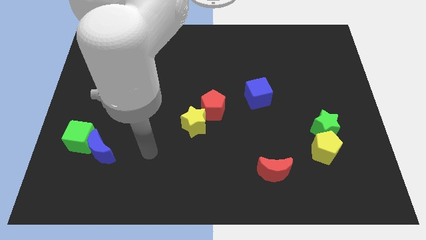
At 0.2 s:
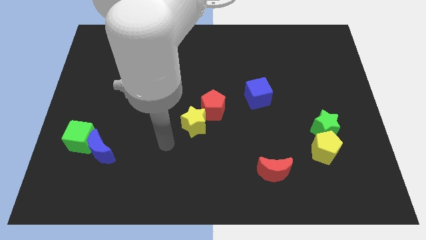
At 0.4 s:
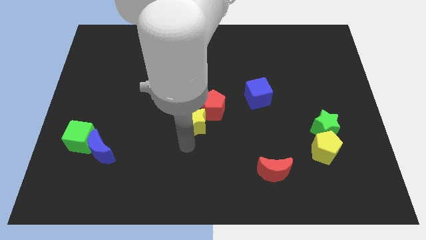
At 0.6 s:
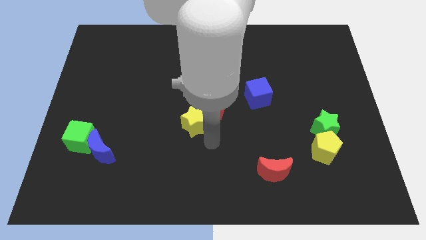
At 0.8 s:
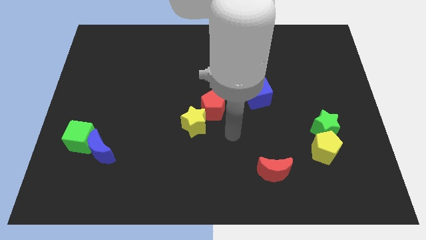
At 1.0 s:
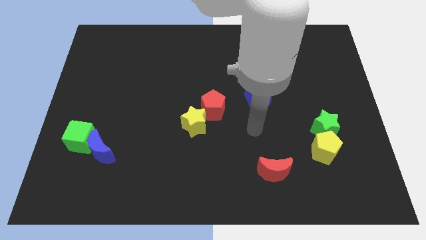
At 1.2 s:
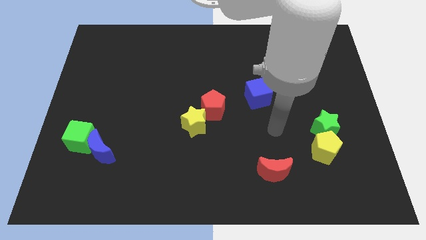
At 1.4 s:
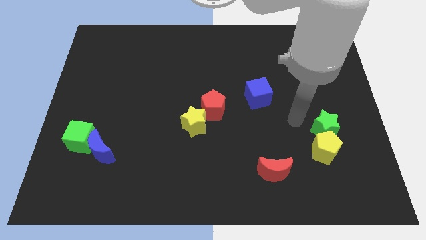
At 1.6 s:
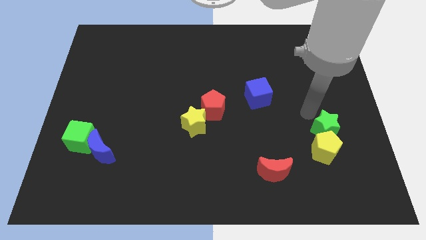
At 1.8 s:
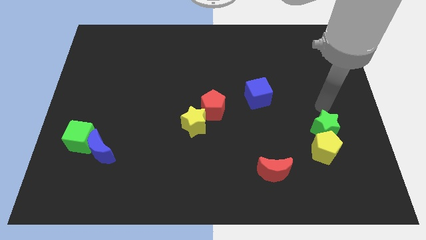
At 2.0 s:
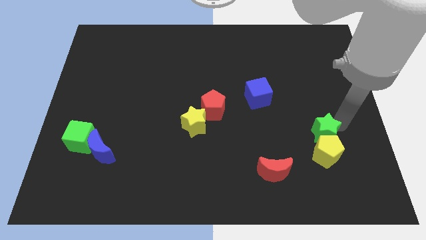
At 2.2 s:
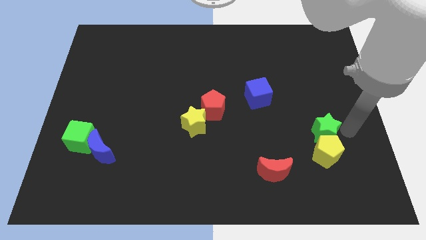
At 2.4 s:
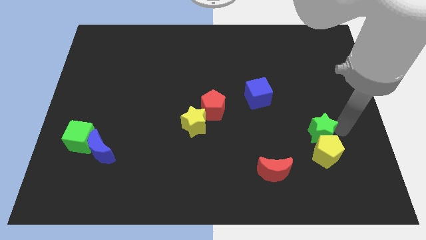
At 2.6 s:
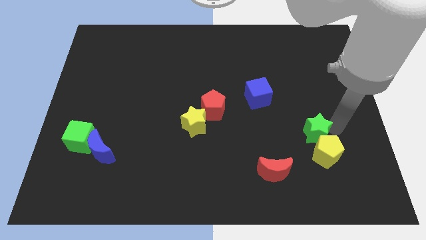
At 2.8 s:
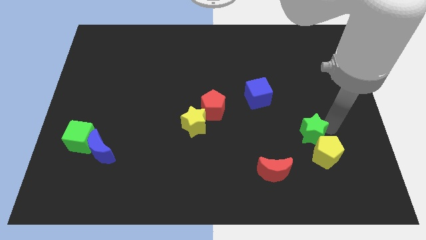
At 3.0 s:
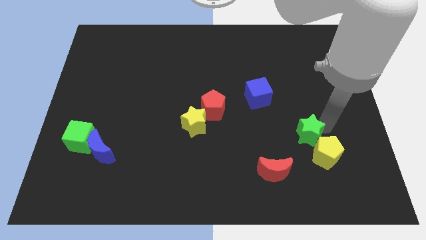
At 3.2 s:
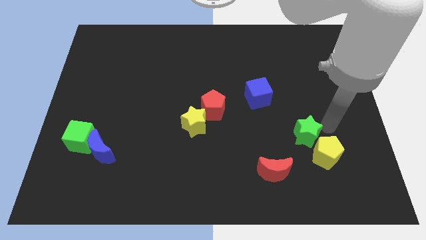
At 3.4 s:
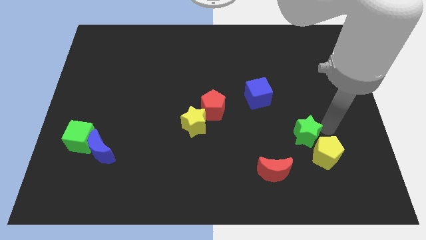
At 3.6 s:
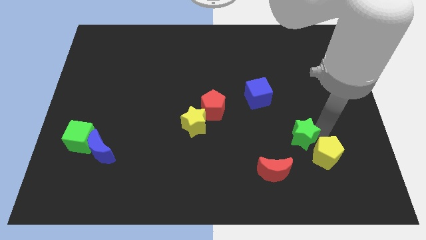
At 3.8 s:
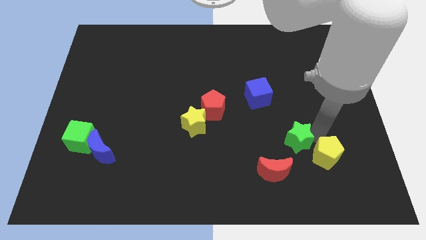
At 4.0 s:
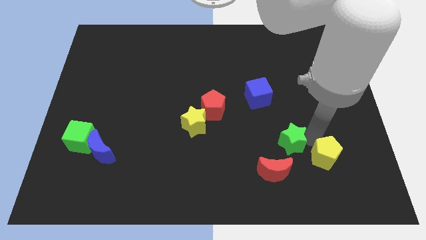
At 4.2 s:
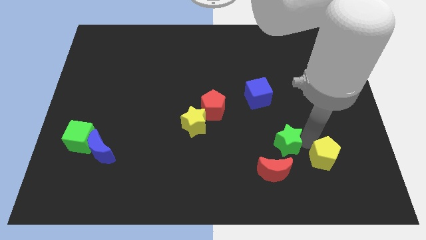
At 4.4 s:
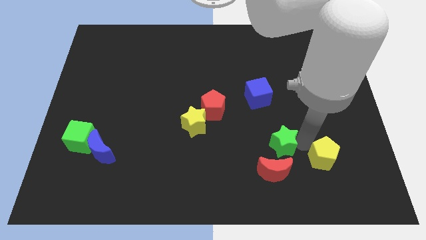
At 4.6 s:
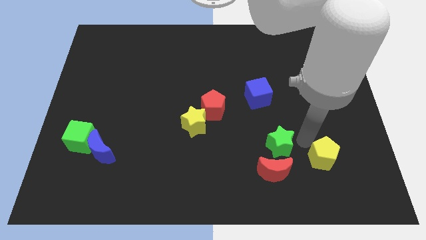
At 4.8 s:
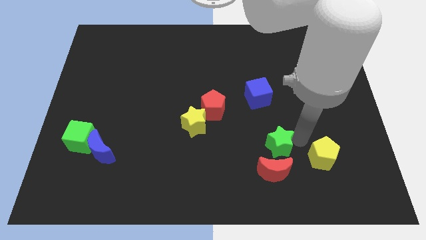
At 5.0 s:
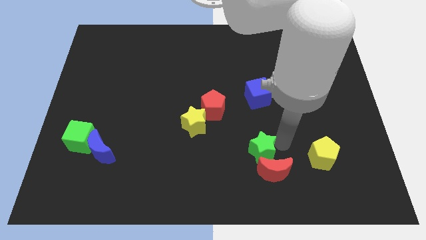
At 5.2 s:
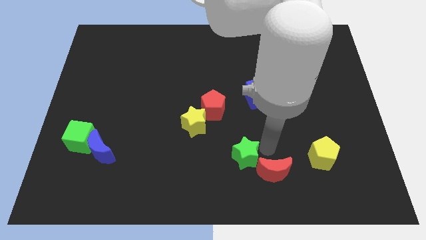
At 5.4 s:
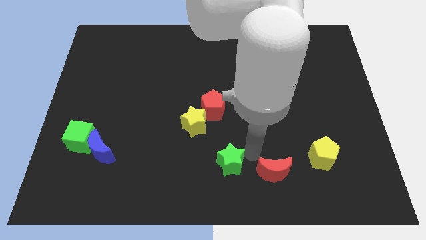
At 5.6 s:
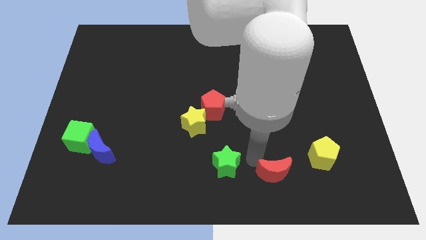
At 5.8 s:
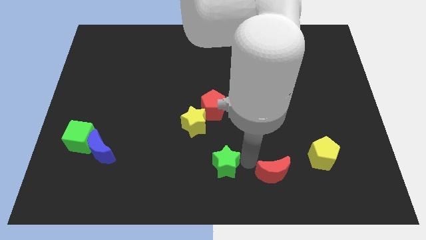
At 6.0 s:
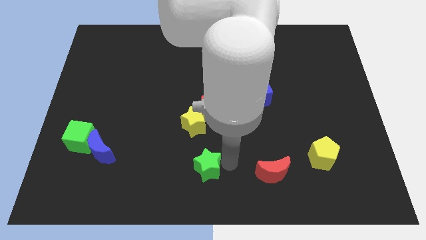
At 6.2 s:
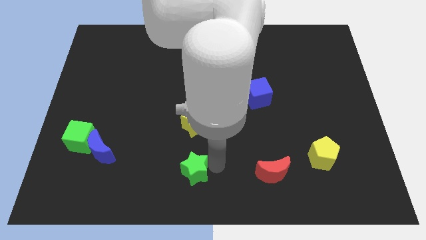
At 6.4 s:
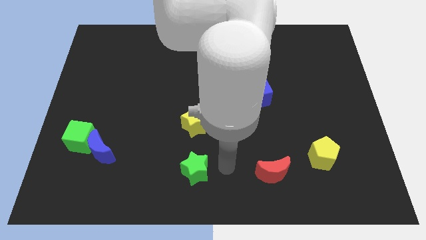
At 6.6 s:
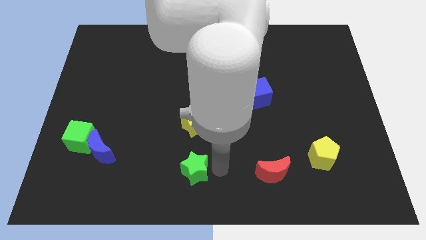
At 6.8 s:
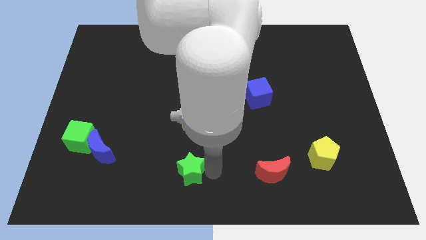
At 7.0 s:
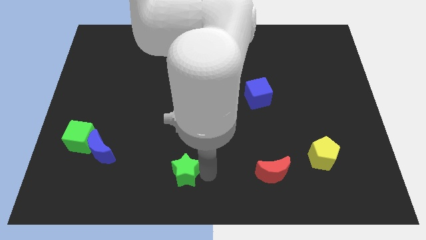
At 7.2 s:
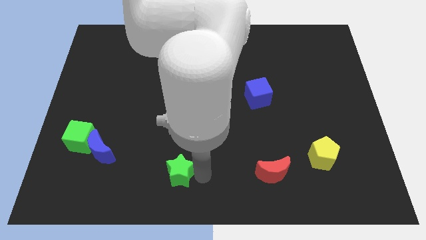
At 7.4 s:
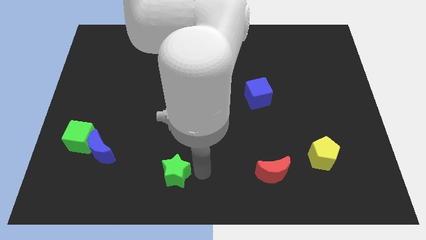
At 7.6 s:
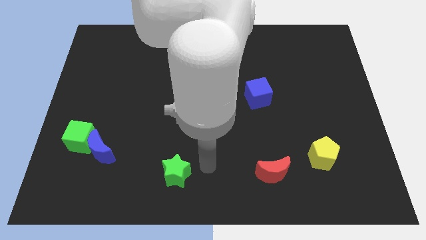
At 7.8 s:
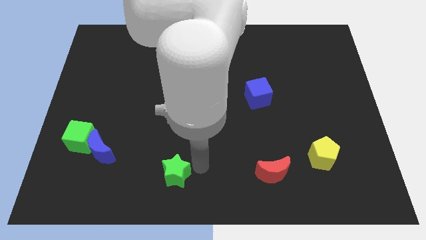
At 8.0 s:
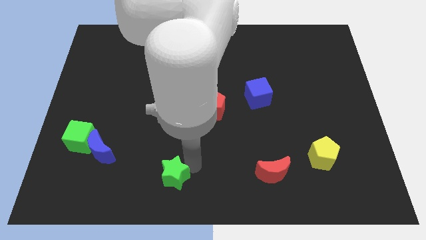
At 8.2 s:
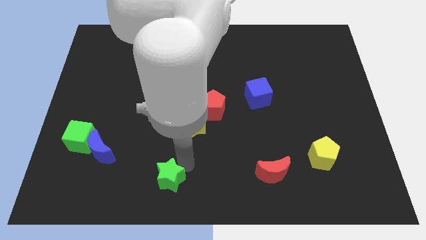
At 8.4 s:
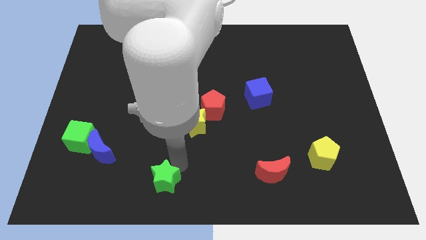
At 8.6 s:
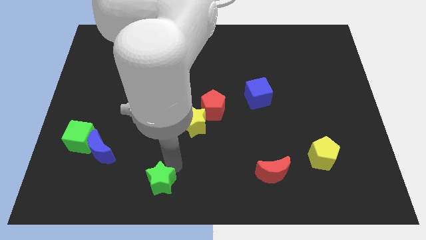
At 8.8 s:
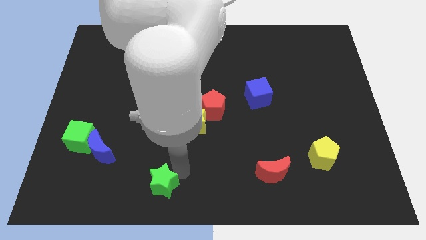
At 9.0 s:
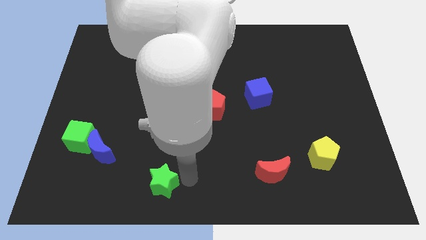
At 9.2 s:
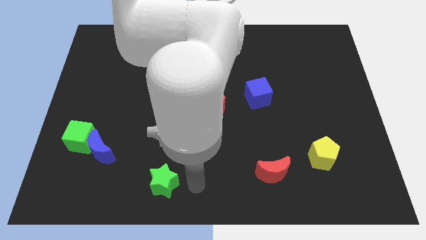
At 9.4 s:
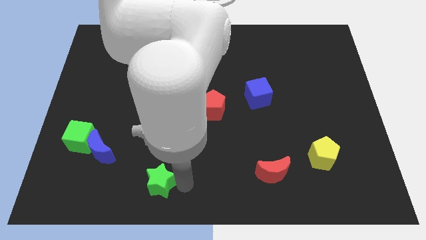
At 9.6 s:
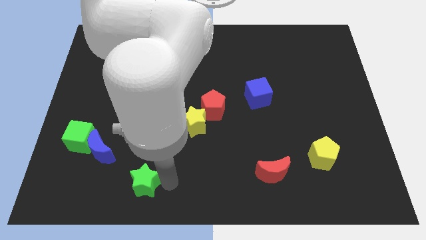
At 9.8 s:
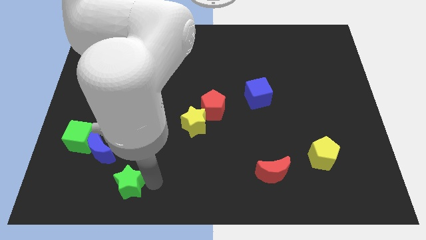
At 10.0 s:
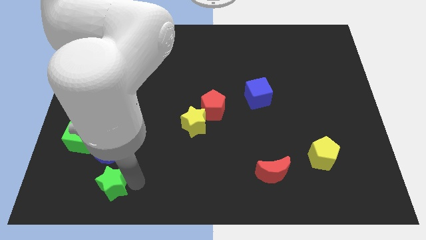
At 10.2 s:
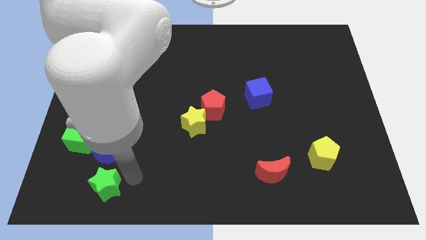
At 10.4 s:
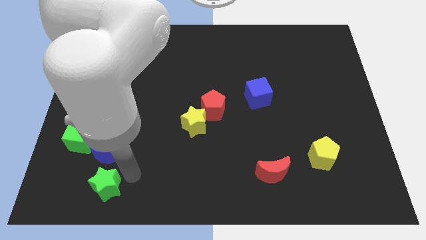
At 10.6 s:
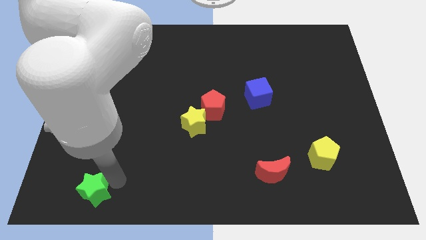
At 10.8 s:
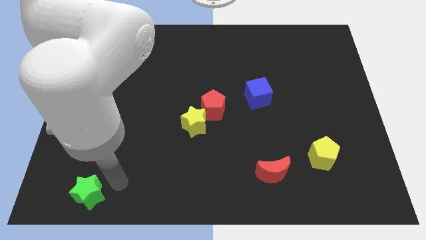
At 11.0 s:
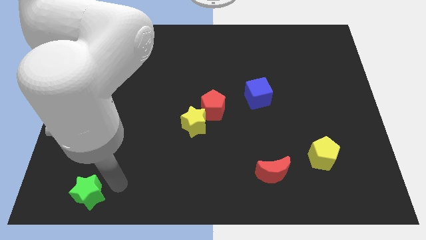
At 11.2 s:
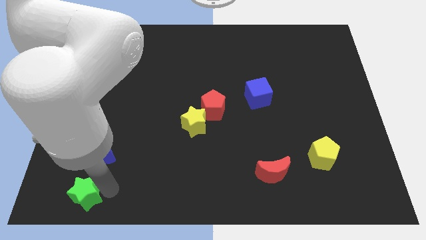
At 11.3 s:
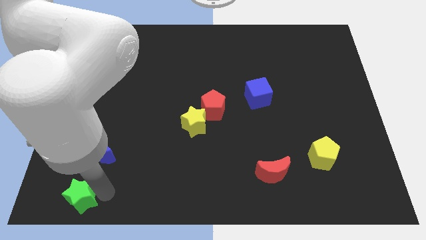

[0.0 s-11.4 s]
slide the green star to the bottom left
